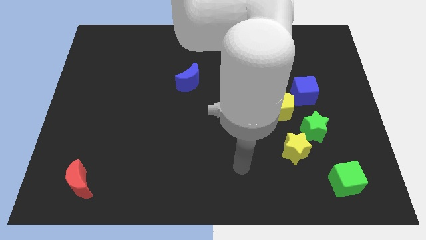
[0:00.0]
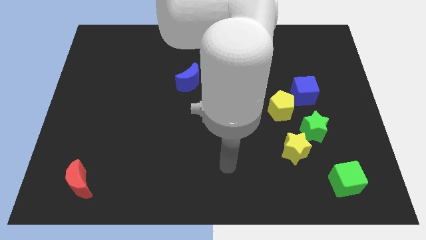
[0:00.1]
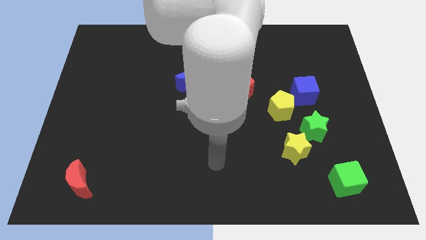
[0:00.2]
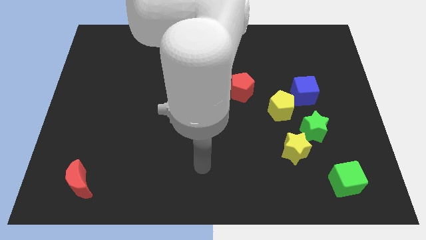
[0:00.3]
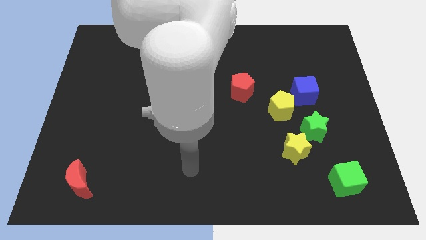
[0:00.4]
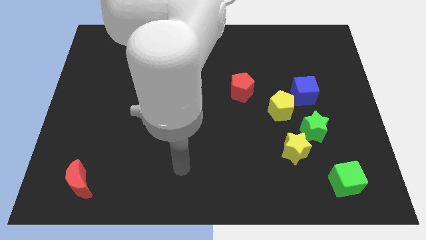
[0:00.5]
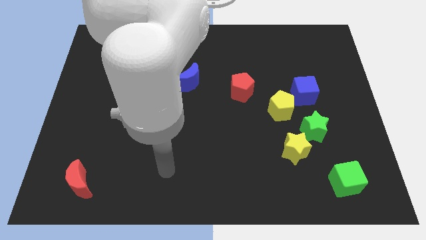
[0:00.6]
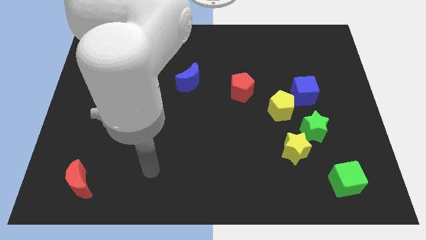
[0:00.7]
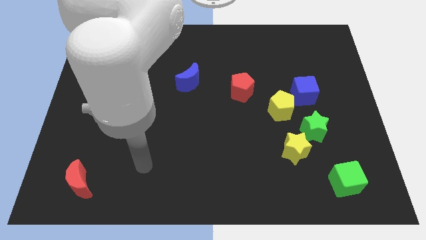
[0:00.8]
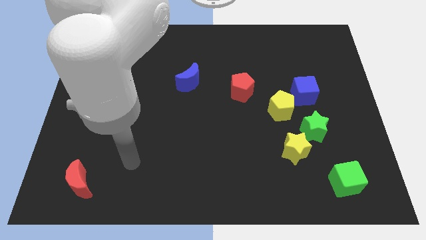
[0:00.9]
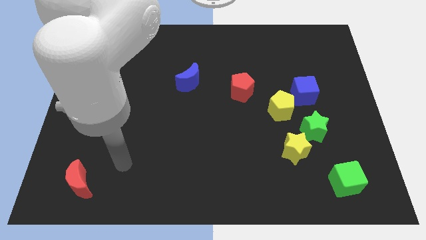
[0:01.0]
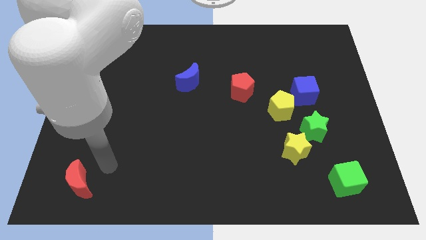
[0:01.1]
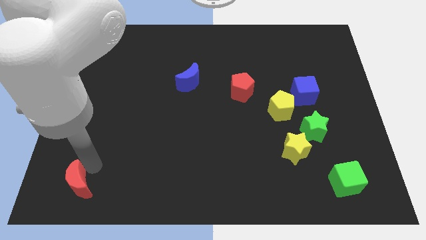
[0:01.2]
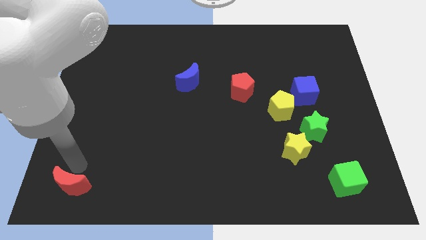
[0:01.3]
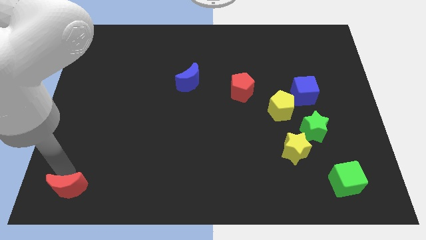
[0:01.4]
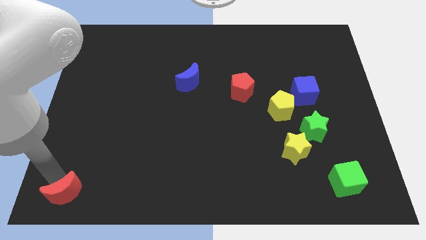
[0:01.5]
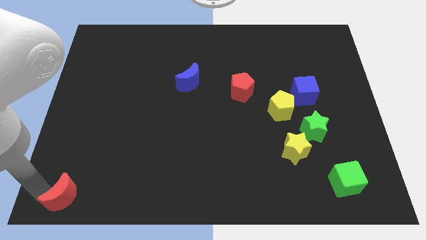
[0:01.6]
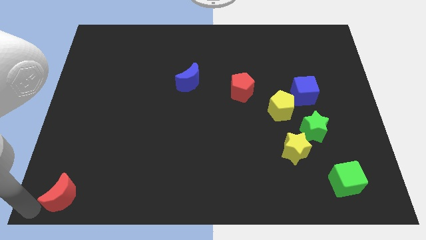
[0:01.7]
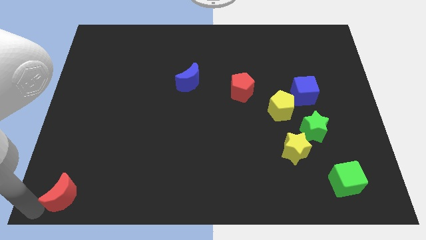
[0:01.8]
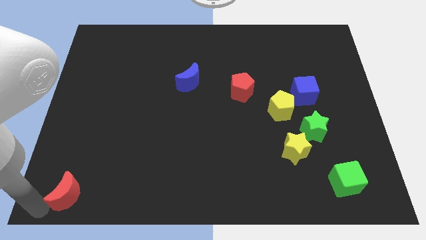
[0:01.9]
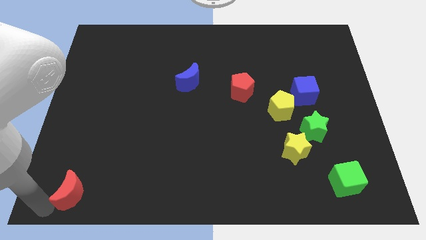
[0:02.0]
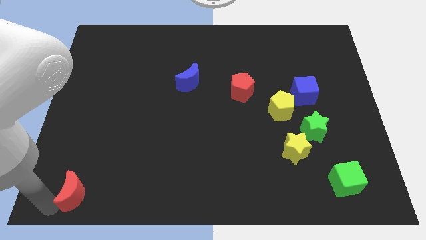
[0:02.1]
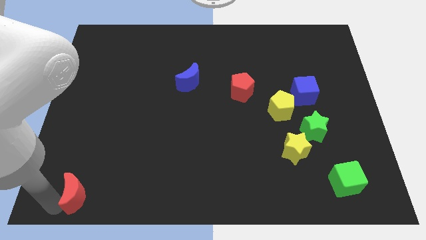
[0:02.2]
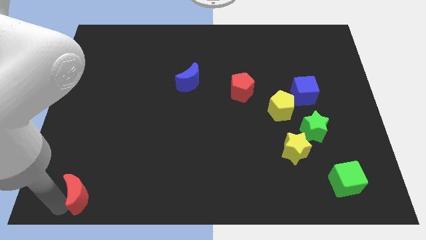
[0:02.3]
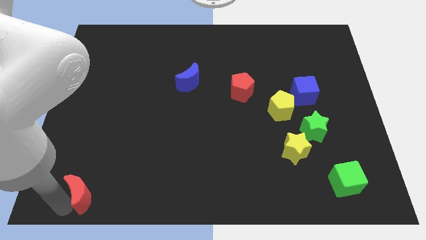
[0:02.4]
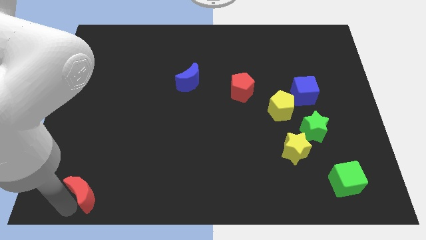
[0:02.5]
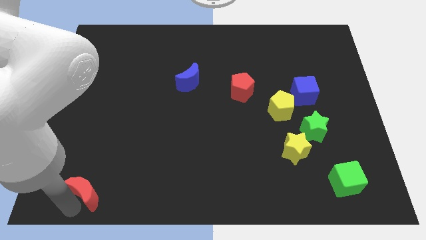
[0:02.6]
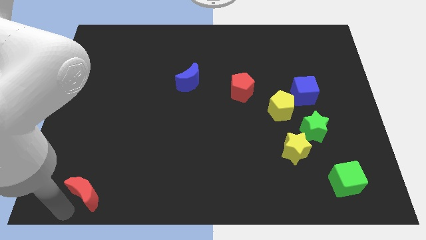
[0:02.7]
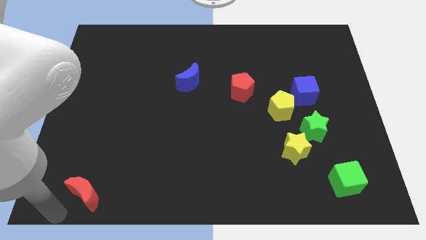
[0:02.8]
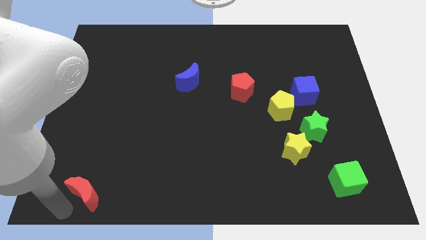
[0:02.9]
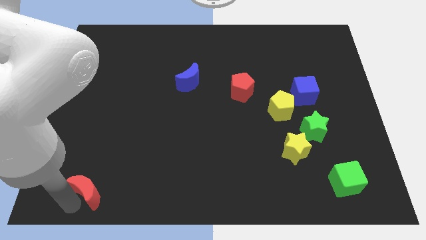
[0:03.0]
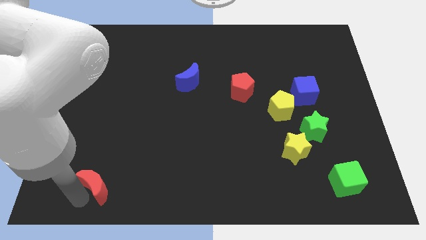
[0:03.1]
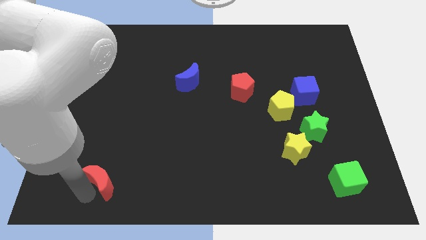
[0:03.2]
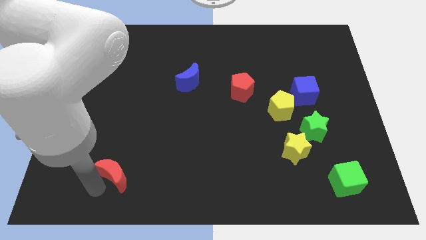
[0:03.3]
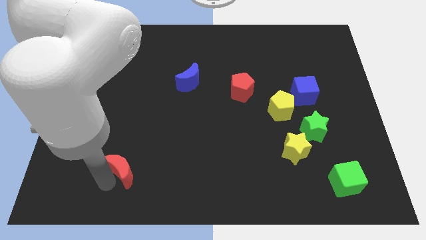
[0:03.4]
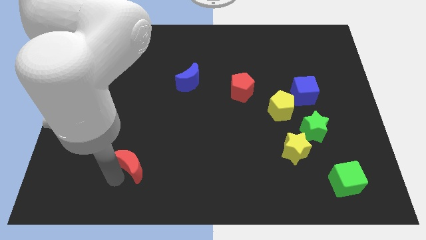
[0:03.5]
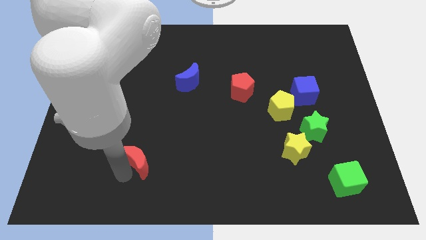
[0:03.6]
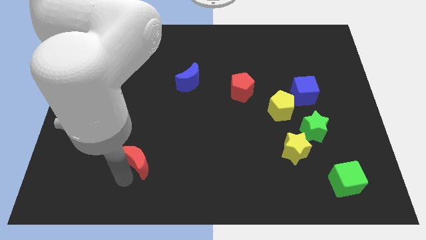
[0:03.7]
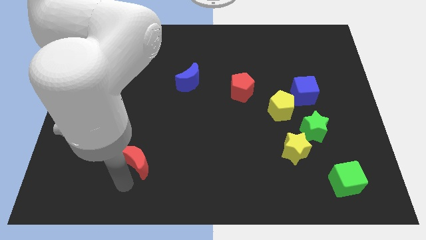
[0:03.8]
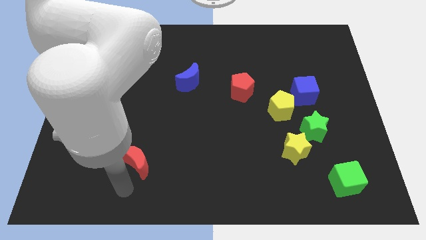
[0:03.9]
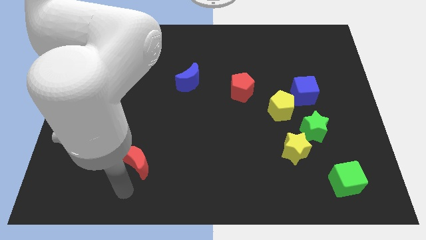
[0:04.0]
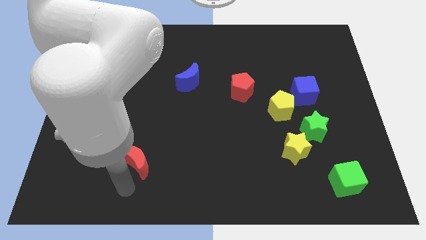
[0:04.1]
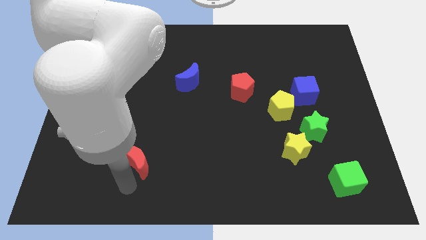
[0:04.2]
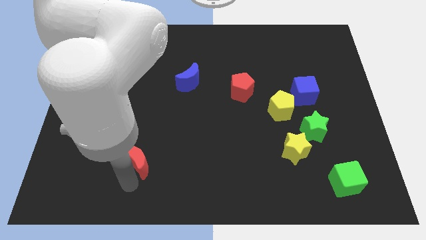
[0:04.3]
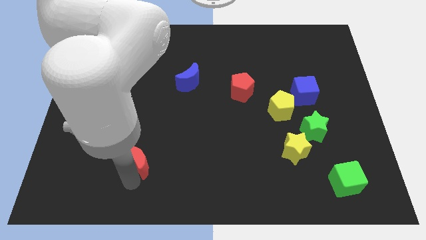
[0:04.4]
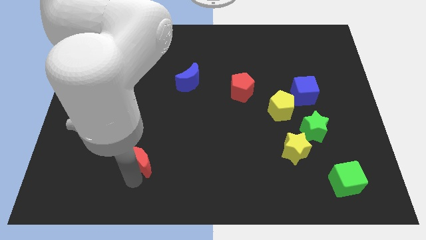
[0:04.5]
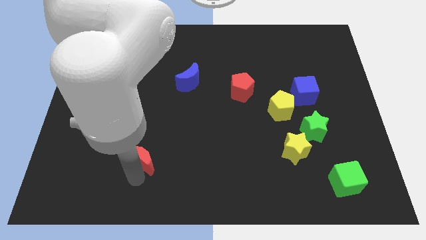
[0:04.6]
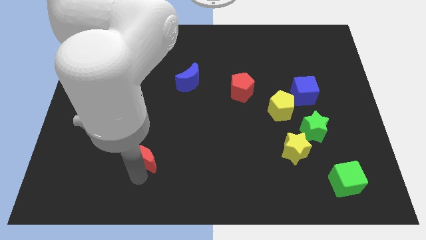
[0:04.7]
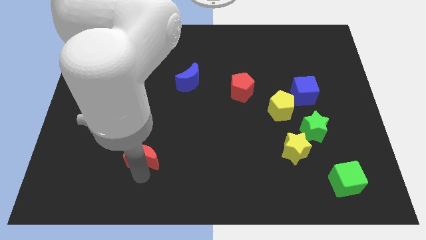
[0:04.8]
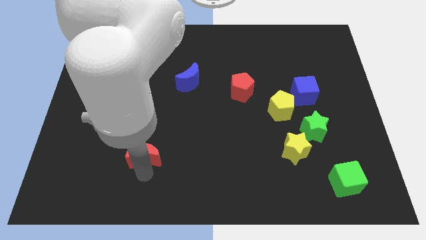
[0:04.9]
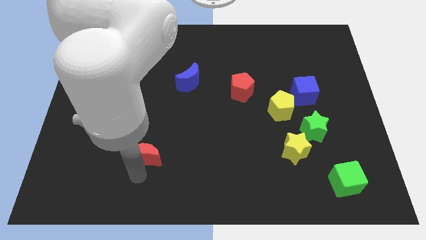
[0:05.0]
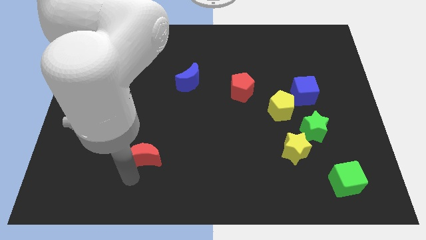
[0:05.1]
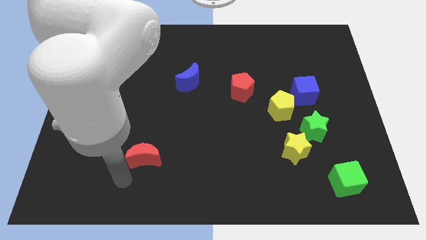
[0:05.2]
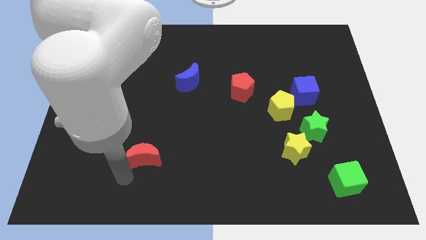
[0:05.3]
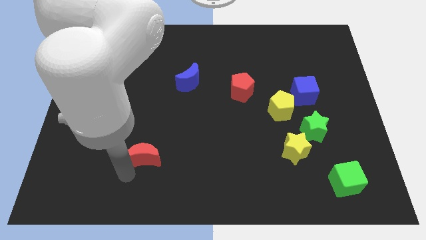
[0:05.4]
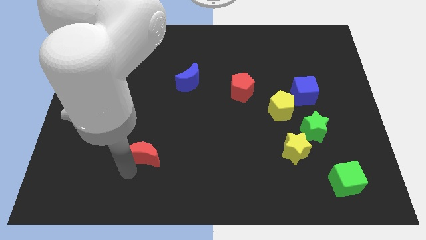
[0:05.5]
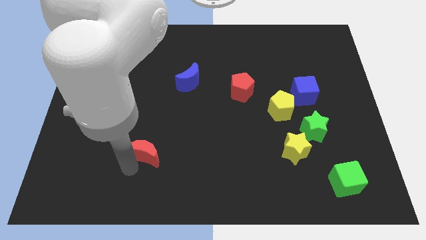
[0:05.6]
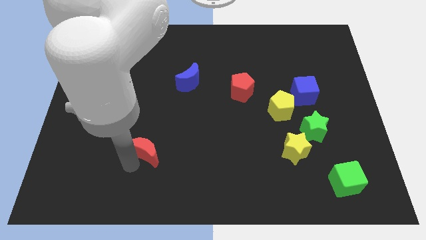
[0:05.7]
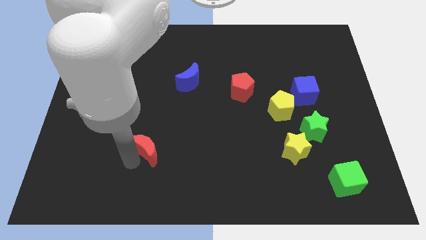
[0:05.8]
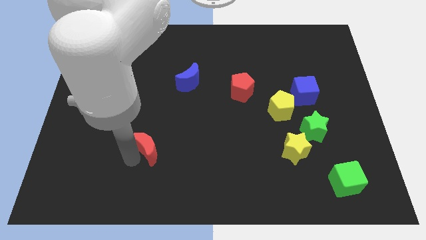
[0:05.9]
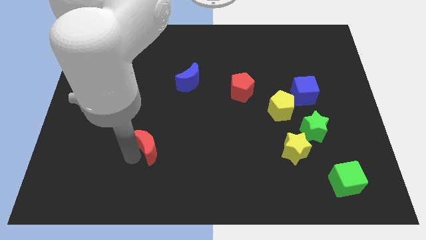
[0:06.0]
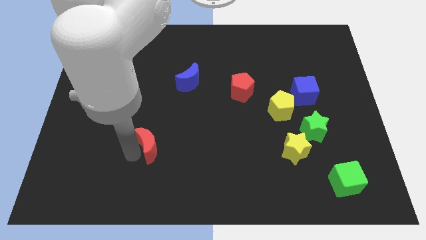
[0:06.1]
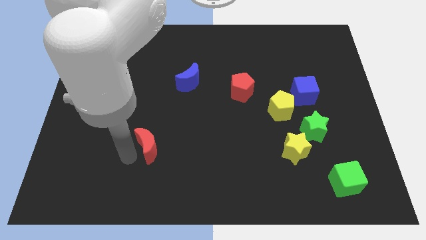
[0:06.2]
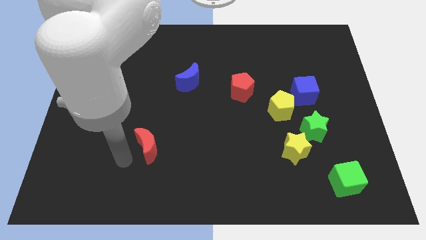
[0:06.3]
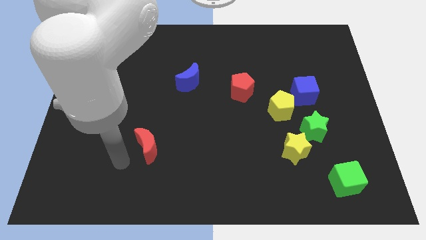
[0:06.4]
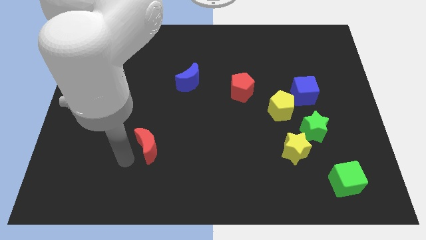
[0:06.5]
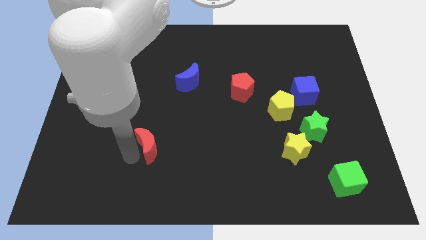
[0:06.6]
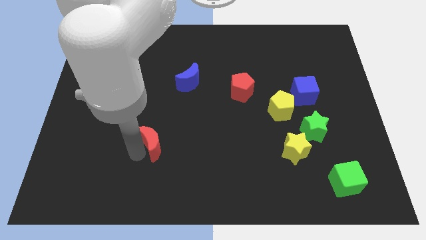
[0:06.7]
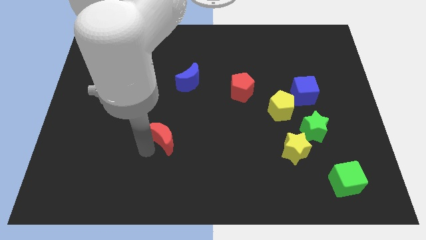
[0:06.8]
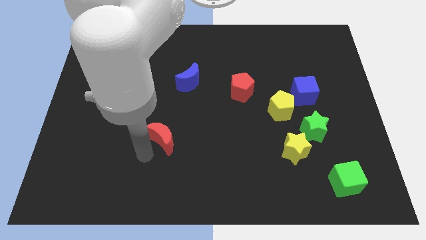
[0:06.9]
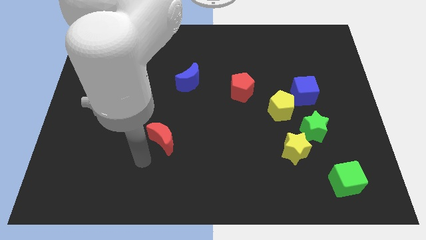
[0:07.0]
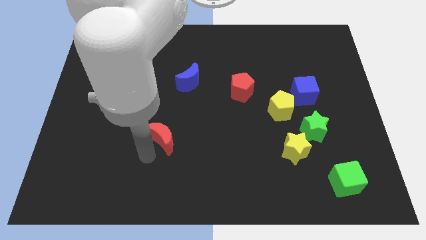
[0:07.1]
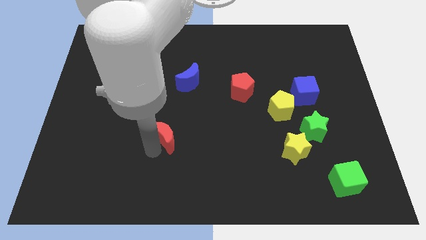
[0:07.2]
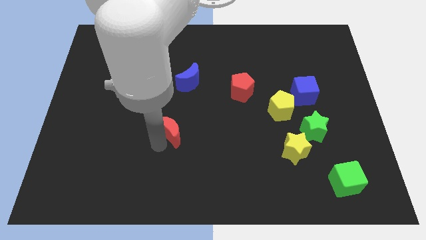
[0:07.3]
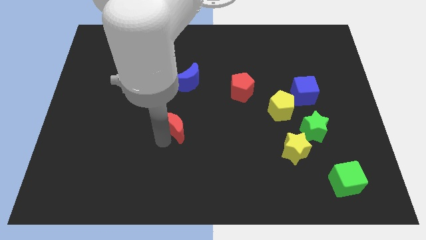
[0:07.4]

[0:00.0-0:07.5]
push the red moon to the middle of the board
